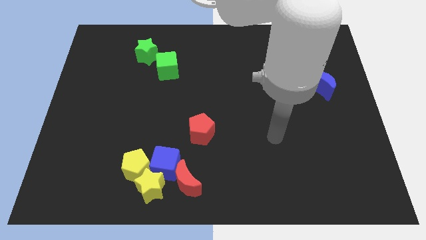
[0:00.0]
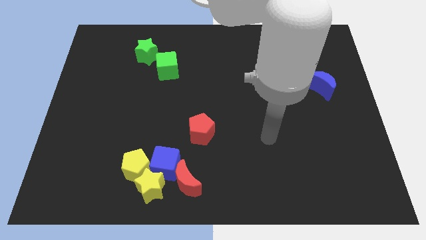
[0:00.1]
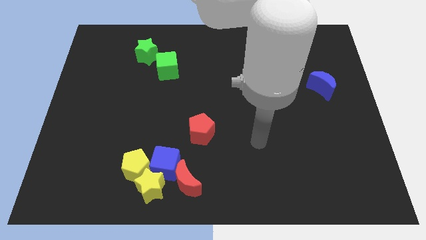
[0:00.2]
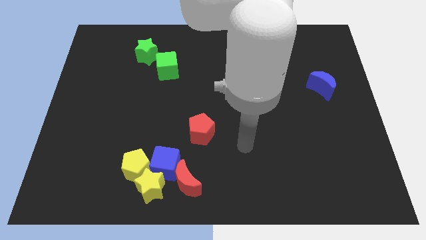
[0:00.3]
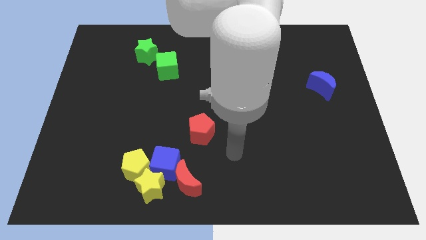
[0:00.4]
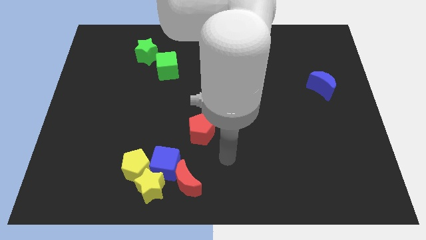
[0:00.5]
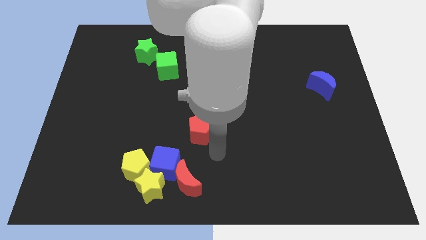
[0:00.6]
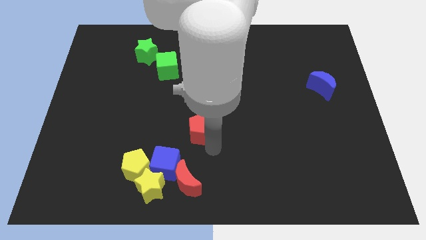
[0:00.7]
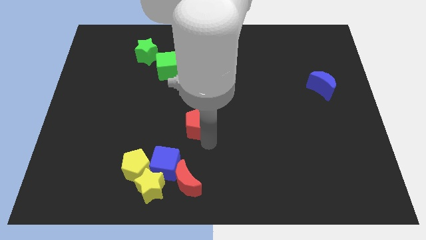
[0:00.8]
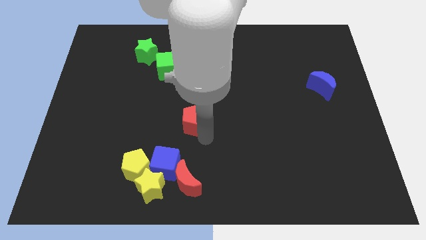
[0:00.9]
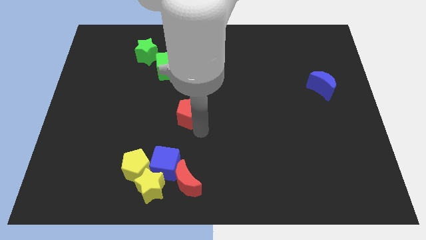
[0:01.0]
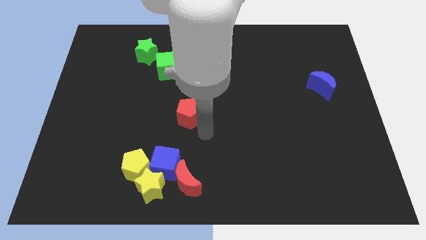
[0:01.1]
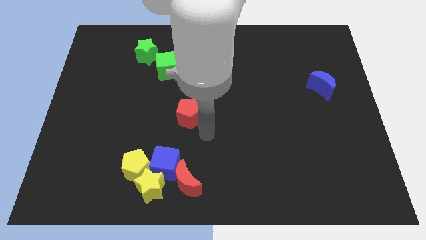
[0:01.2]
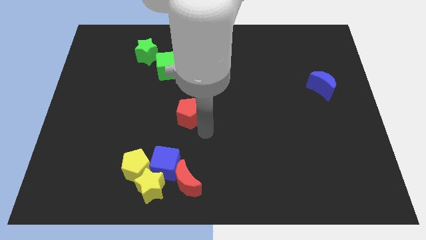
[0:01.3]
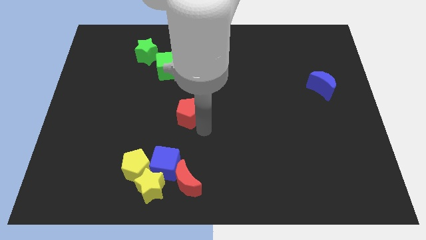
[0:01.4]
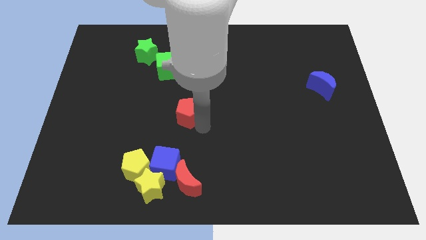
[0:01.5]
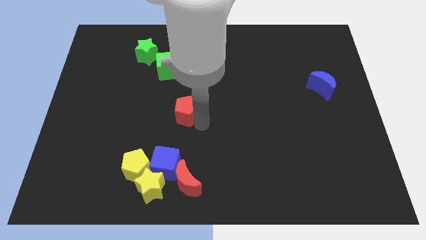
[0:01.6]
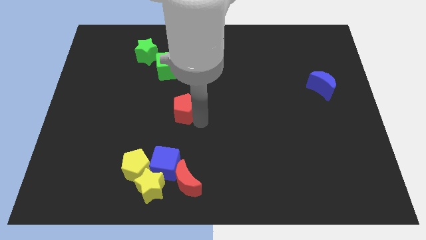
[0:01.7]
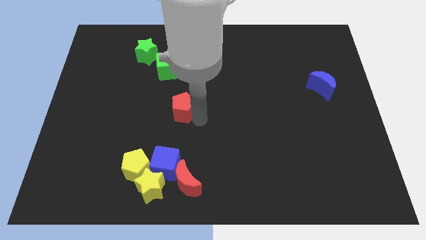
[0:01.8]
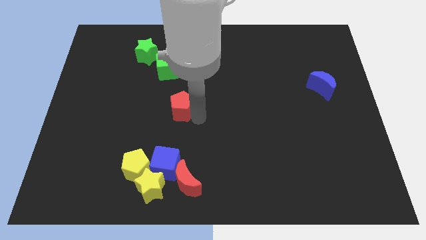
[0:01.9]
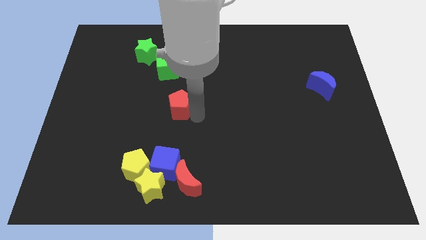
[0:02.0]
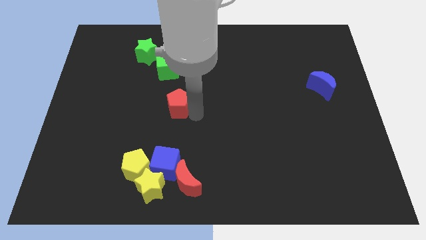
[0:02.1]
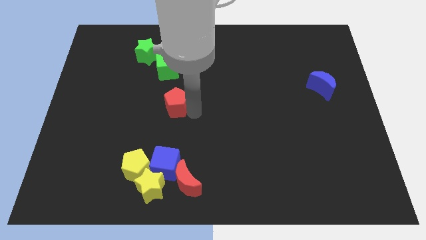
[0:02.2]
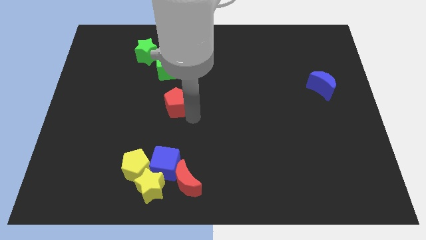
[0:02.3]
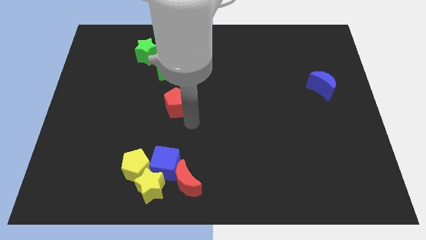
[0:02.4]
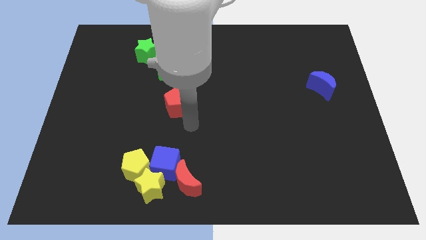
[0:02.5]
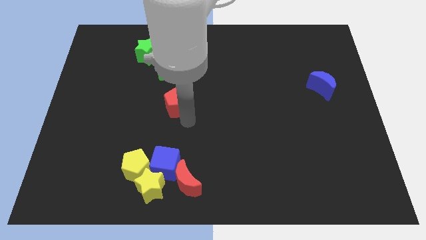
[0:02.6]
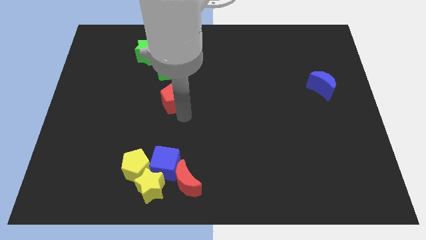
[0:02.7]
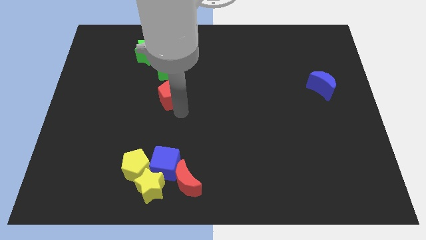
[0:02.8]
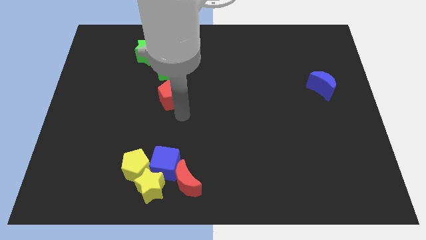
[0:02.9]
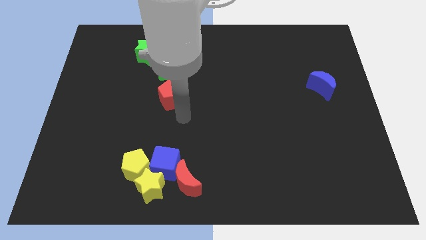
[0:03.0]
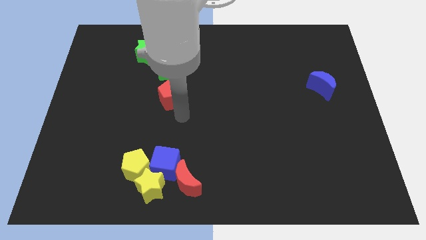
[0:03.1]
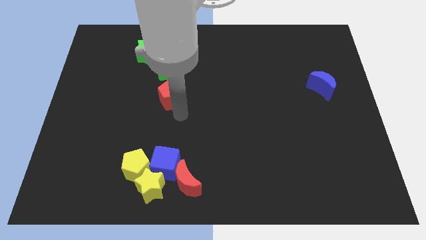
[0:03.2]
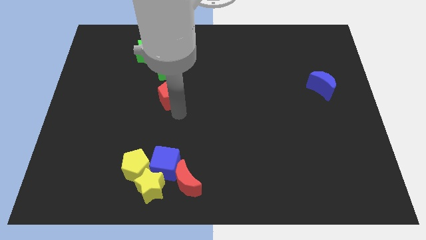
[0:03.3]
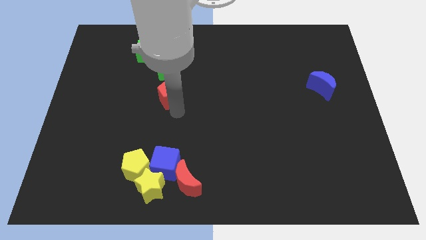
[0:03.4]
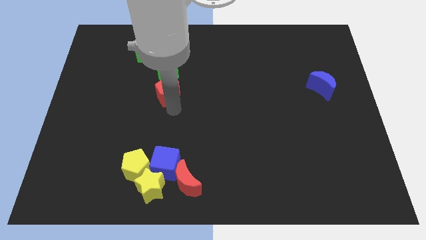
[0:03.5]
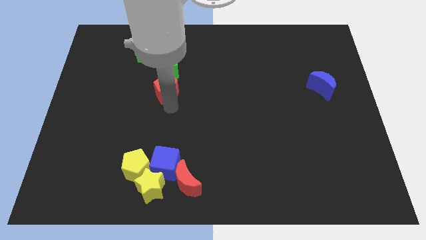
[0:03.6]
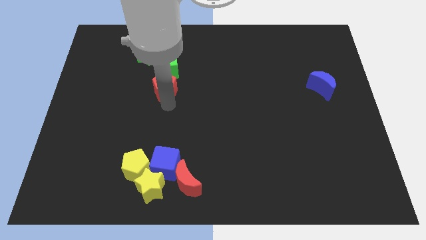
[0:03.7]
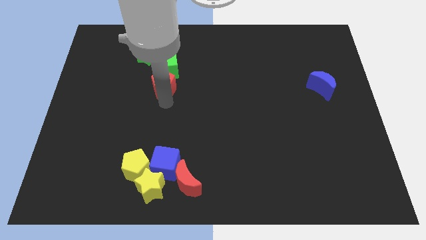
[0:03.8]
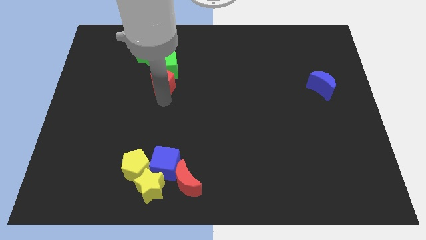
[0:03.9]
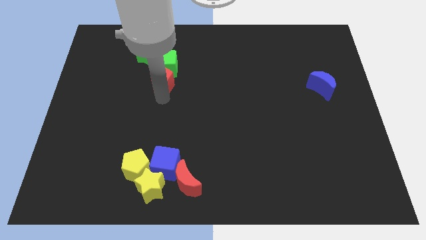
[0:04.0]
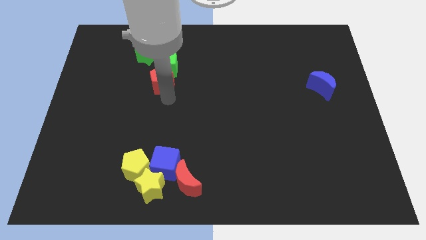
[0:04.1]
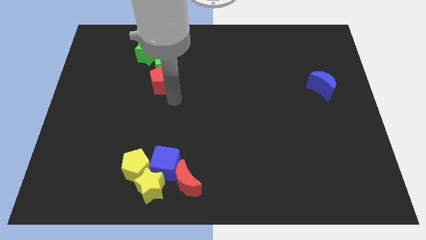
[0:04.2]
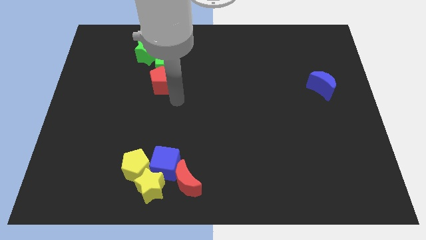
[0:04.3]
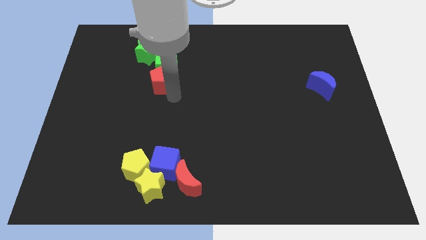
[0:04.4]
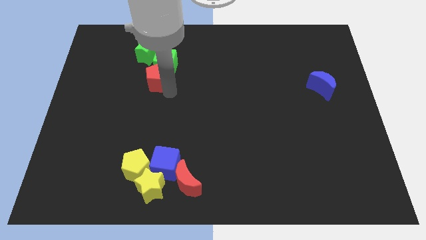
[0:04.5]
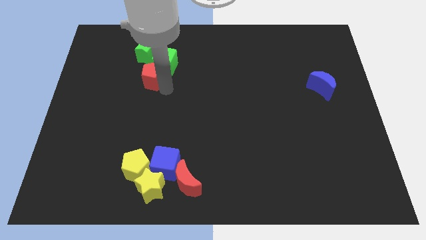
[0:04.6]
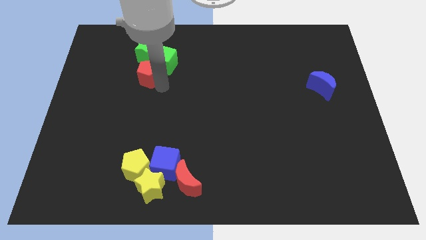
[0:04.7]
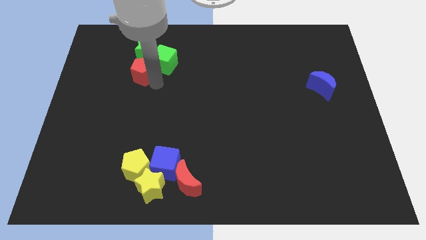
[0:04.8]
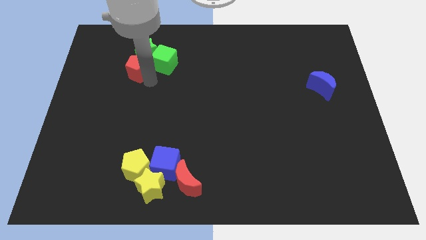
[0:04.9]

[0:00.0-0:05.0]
move the red pentagon to the green star

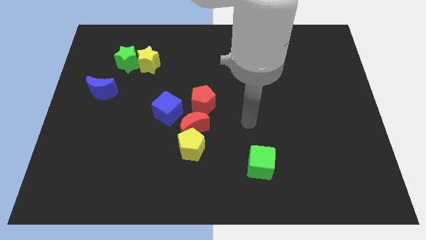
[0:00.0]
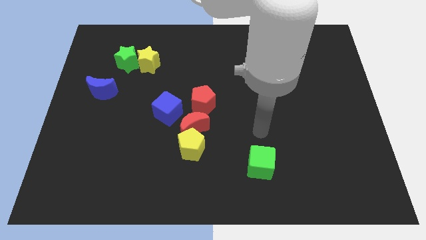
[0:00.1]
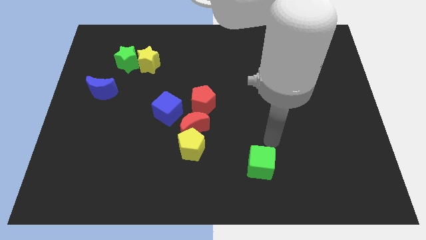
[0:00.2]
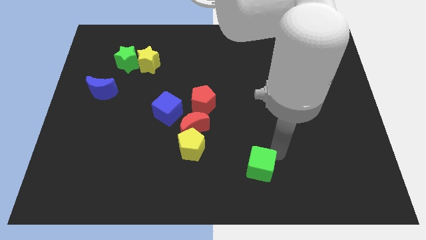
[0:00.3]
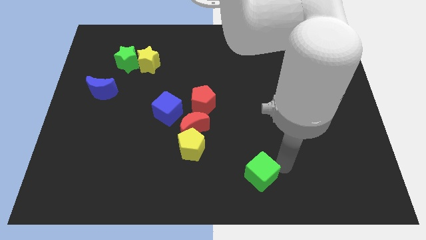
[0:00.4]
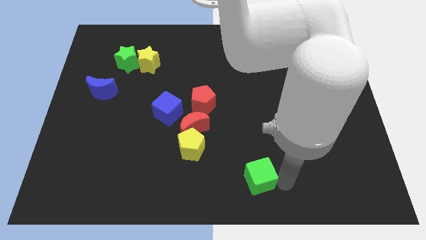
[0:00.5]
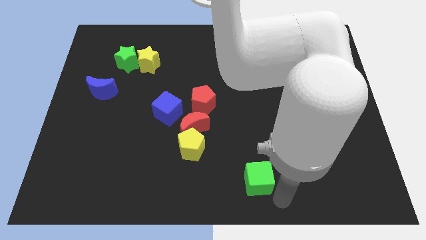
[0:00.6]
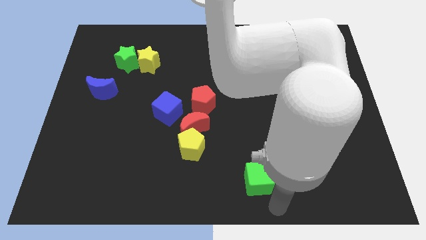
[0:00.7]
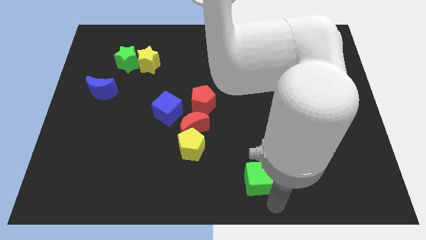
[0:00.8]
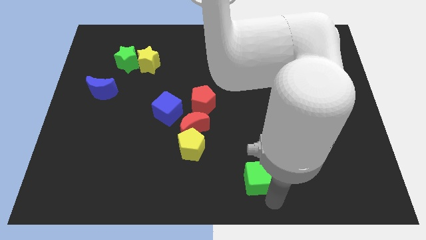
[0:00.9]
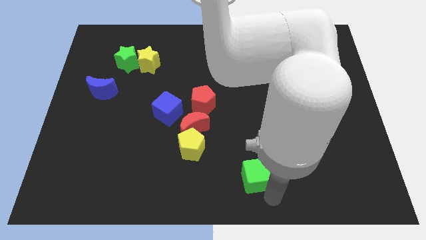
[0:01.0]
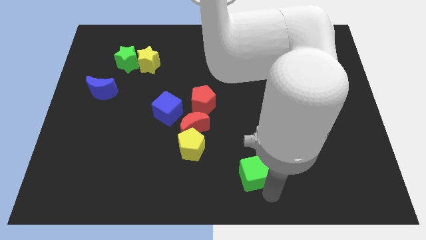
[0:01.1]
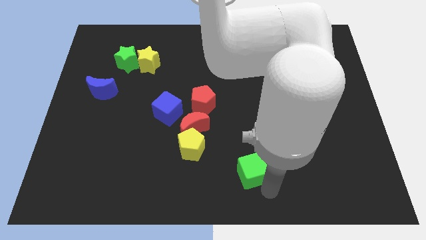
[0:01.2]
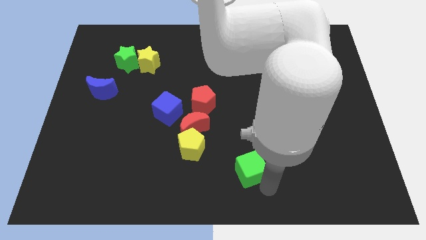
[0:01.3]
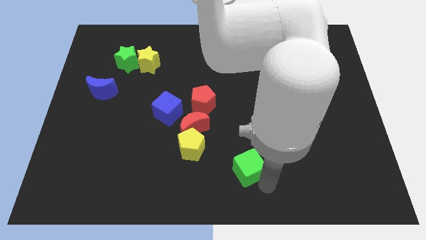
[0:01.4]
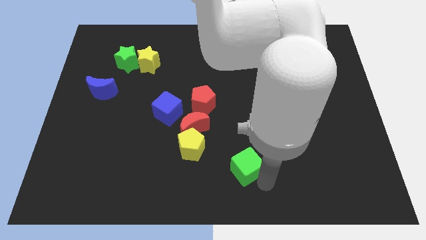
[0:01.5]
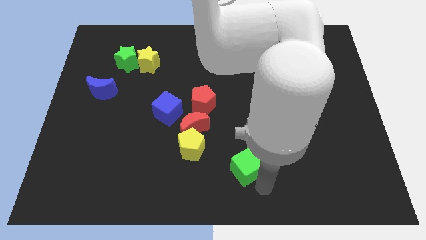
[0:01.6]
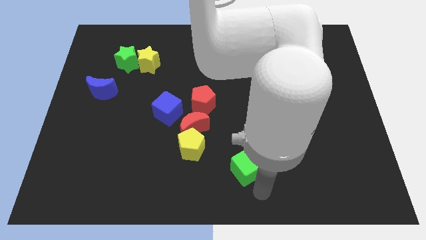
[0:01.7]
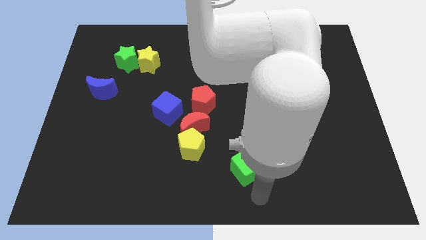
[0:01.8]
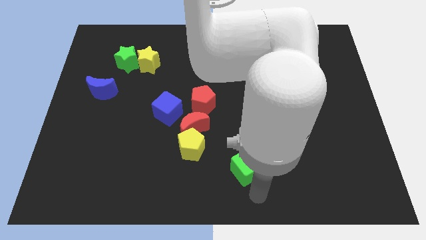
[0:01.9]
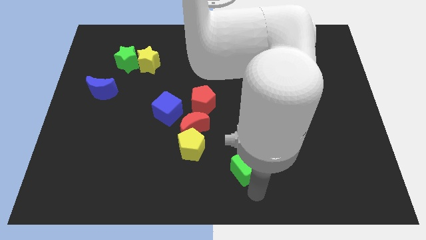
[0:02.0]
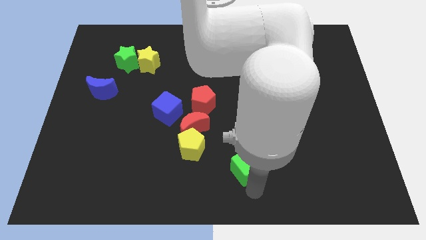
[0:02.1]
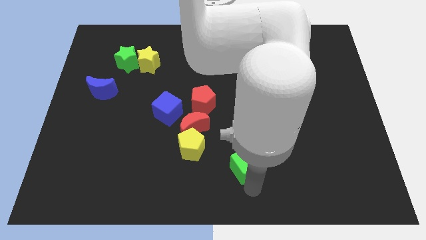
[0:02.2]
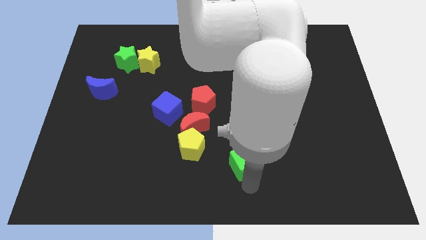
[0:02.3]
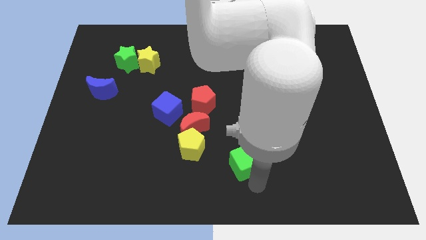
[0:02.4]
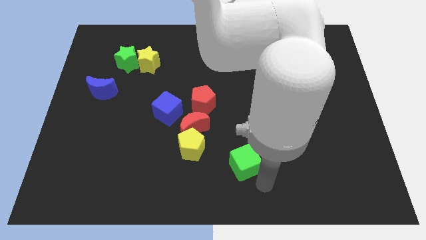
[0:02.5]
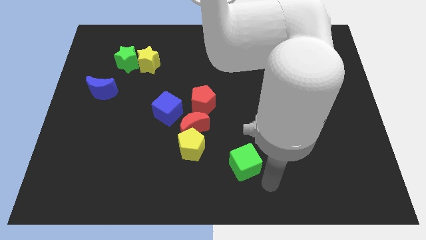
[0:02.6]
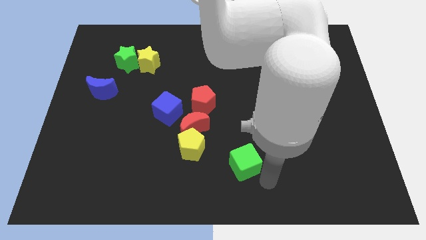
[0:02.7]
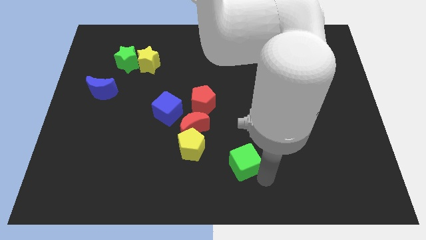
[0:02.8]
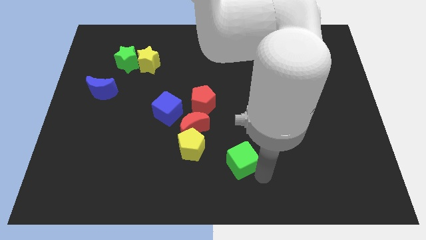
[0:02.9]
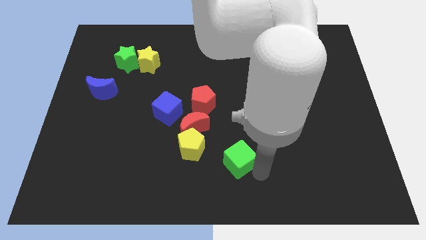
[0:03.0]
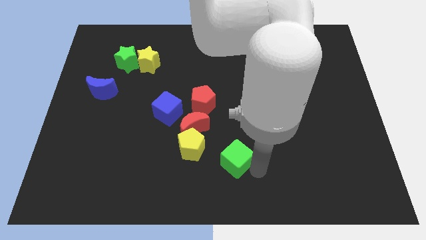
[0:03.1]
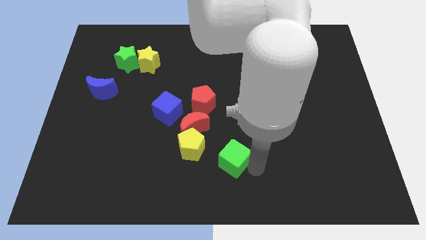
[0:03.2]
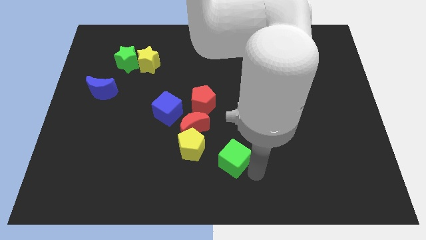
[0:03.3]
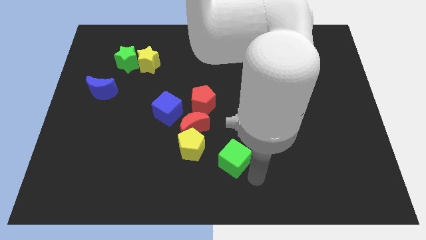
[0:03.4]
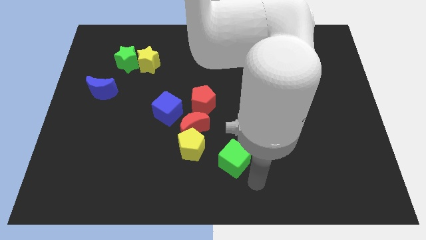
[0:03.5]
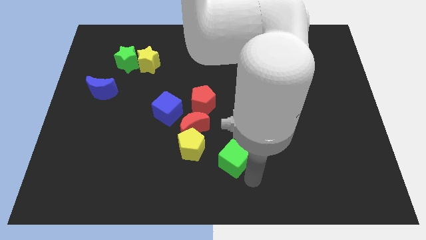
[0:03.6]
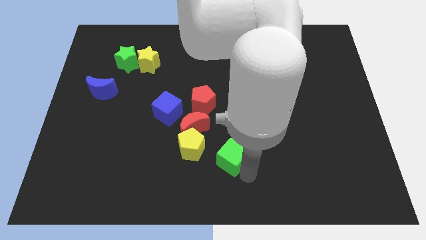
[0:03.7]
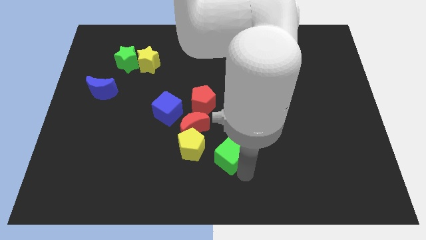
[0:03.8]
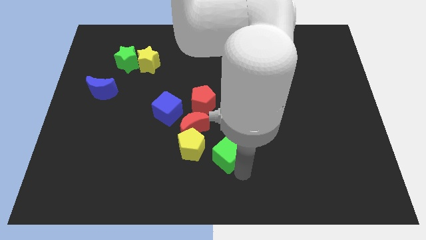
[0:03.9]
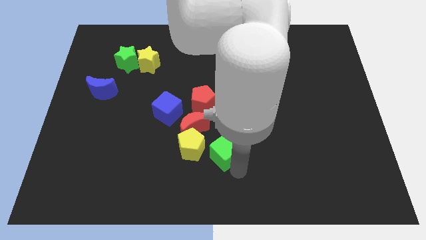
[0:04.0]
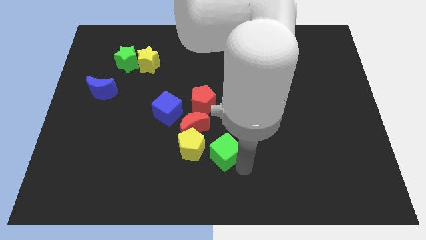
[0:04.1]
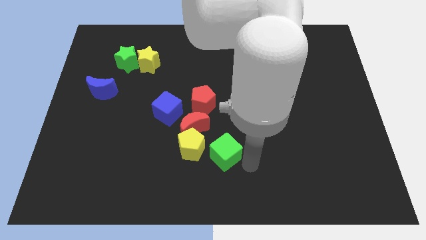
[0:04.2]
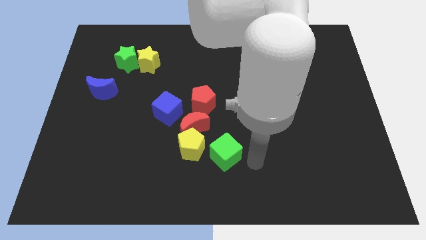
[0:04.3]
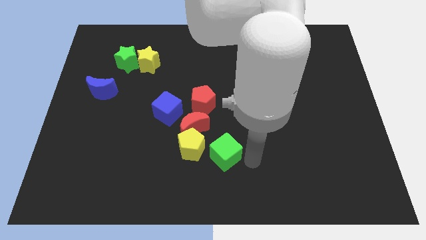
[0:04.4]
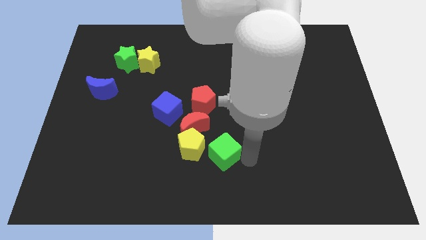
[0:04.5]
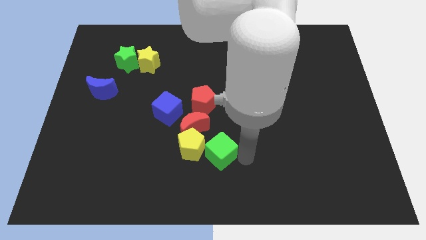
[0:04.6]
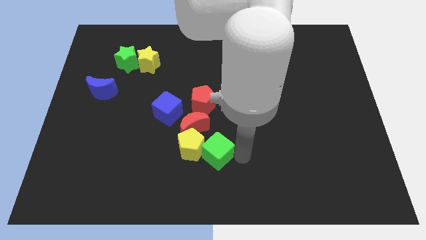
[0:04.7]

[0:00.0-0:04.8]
slide the green cube to the yellow pentagon
